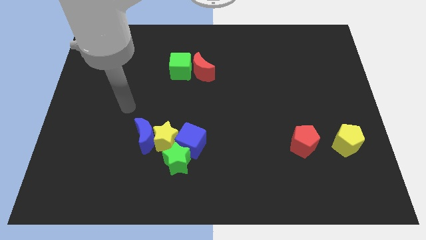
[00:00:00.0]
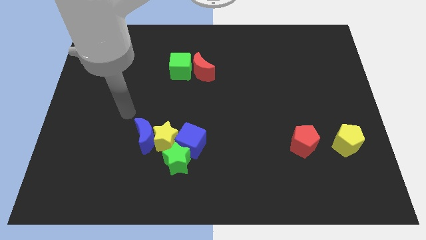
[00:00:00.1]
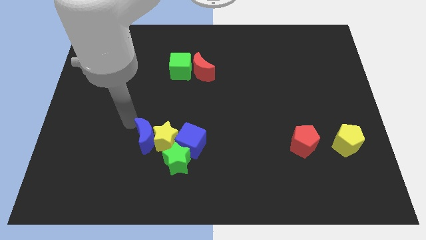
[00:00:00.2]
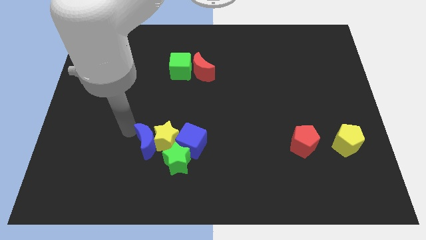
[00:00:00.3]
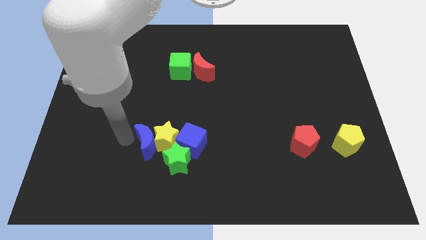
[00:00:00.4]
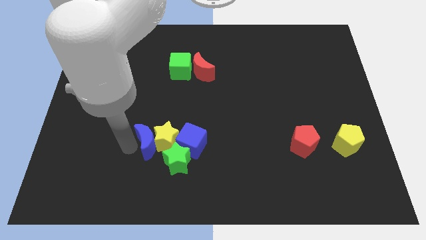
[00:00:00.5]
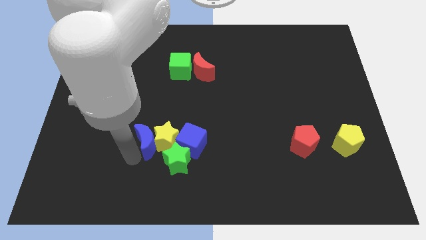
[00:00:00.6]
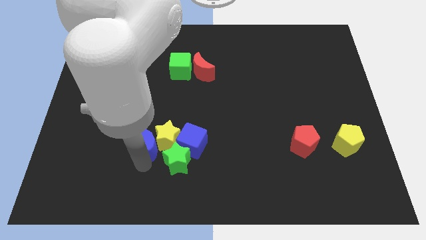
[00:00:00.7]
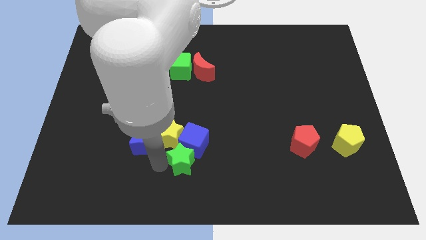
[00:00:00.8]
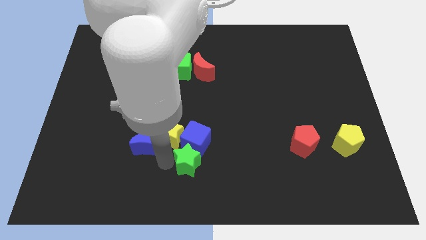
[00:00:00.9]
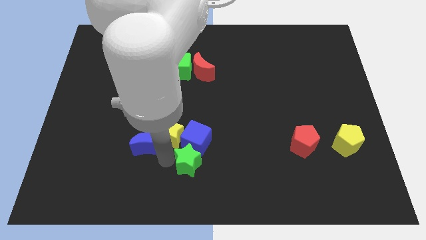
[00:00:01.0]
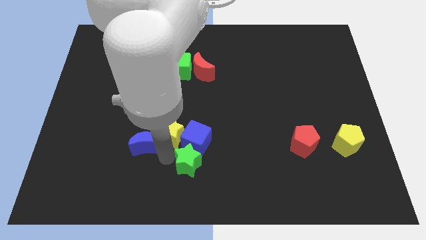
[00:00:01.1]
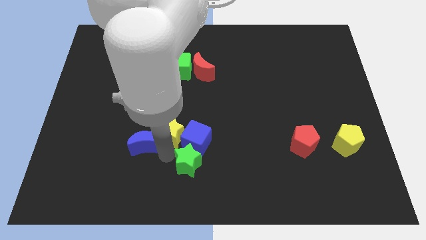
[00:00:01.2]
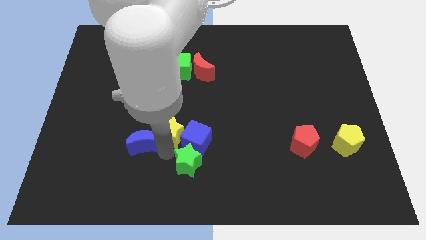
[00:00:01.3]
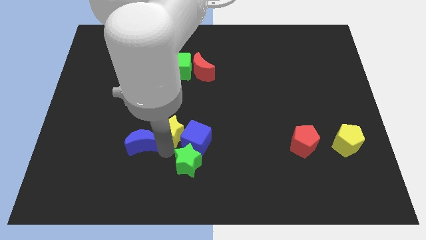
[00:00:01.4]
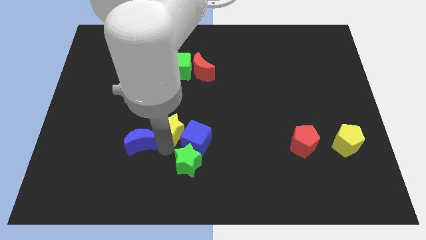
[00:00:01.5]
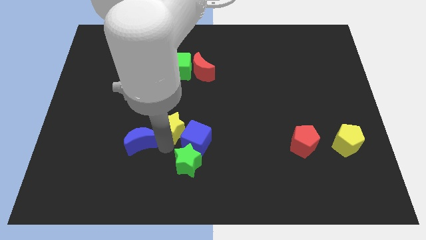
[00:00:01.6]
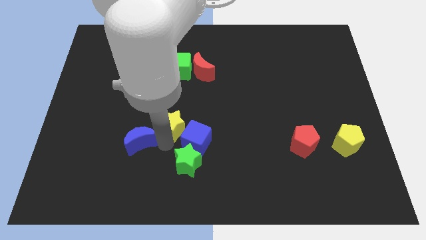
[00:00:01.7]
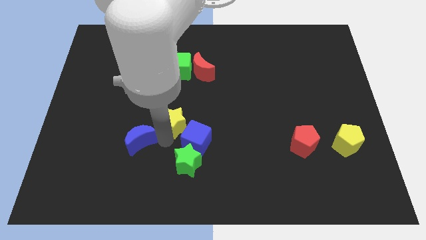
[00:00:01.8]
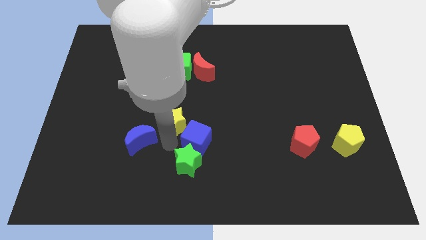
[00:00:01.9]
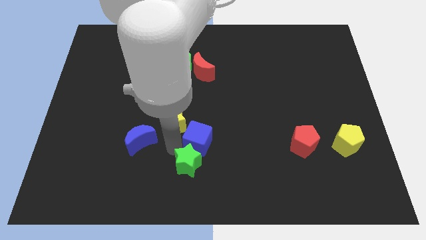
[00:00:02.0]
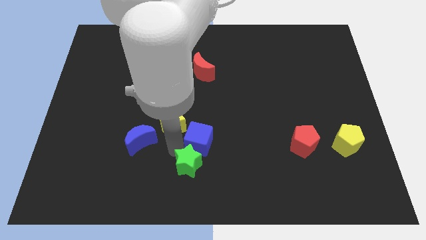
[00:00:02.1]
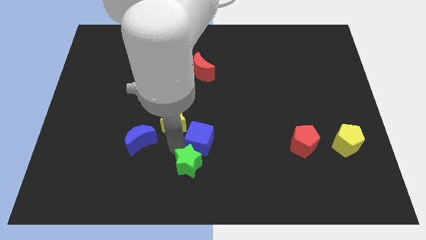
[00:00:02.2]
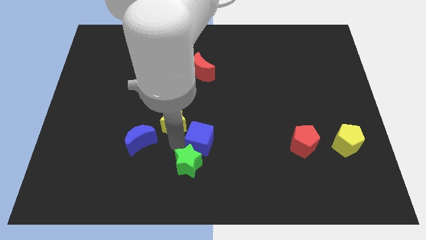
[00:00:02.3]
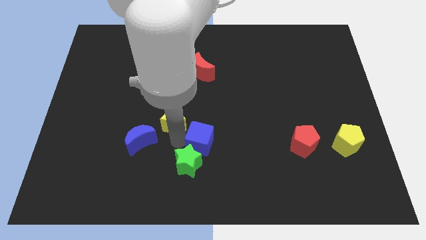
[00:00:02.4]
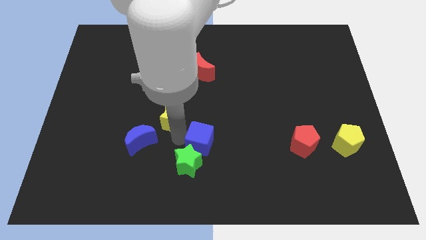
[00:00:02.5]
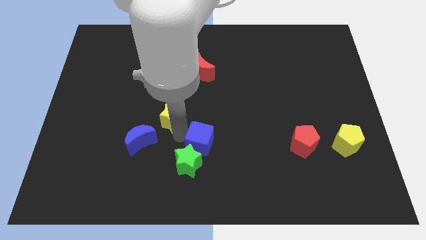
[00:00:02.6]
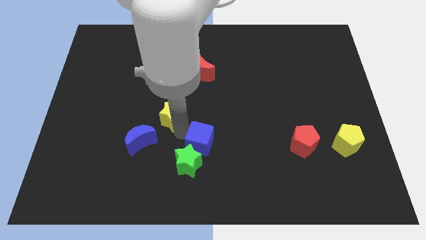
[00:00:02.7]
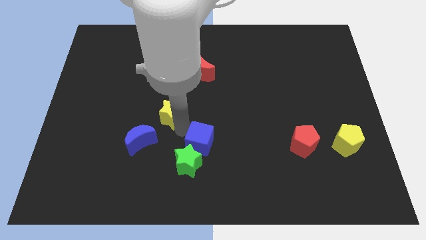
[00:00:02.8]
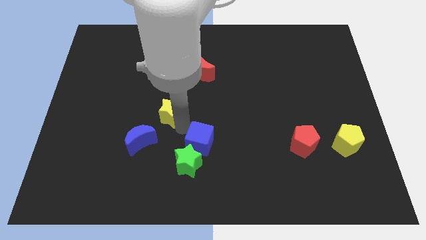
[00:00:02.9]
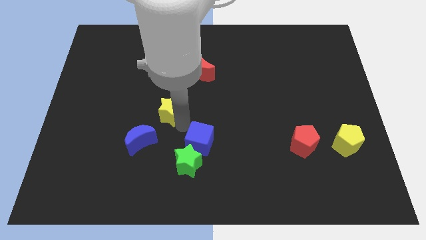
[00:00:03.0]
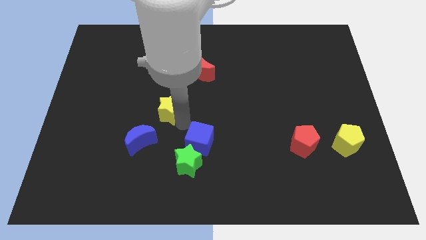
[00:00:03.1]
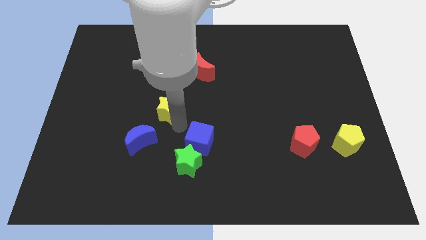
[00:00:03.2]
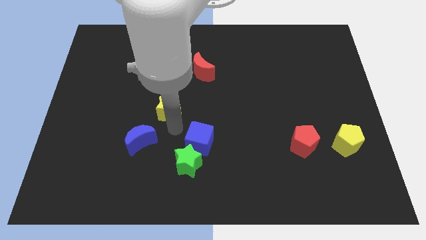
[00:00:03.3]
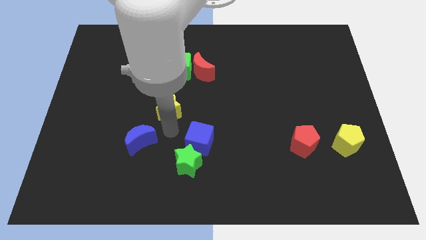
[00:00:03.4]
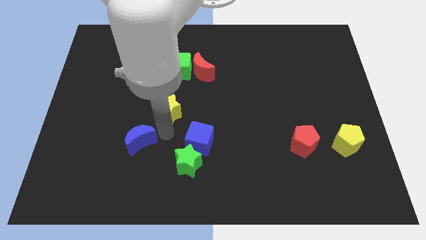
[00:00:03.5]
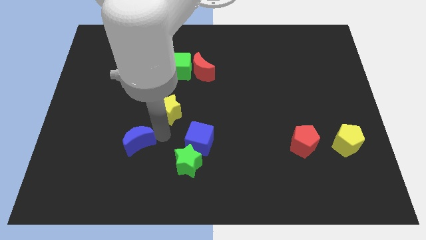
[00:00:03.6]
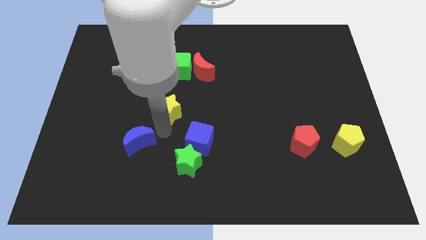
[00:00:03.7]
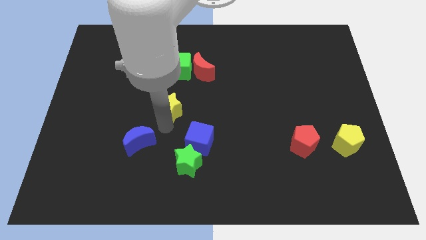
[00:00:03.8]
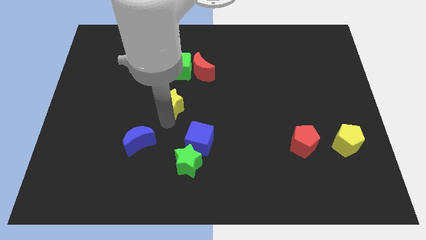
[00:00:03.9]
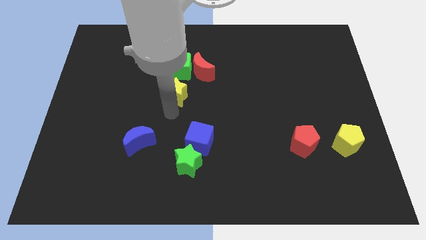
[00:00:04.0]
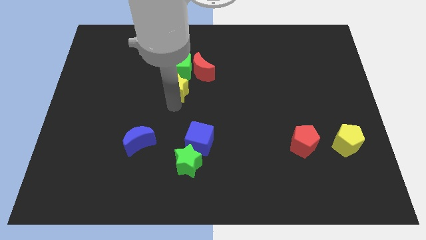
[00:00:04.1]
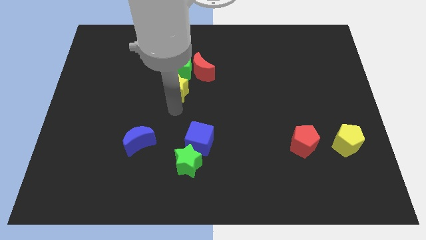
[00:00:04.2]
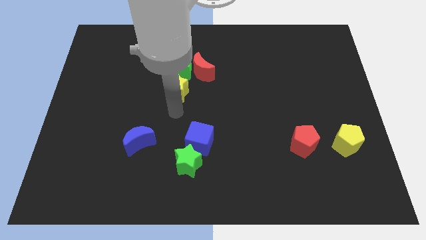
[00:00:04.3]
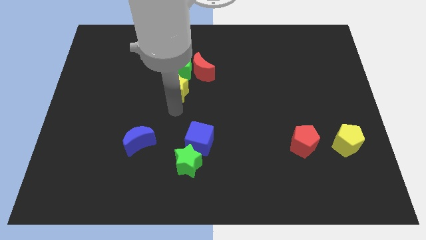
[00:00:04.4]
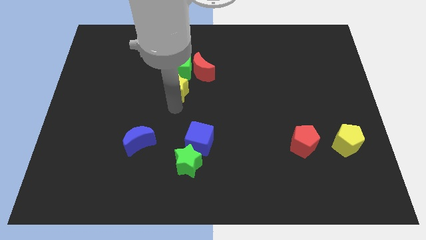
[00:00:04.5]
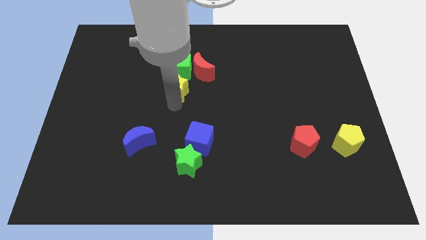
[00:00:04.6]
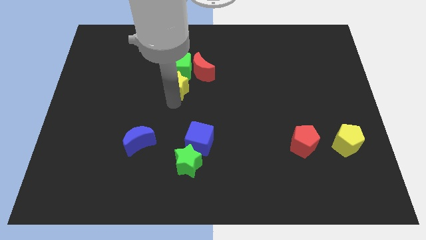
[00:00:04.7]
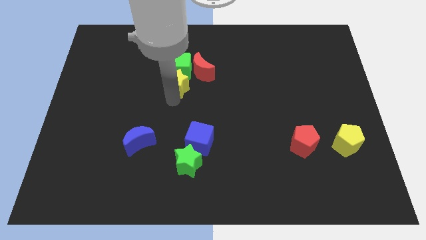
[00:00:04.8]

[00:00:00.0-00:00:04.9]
put the yellow star to the green cube

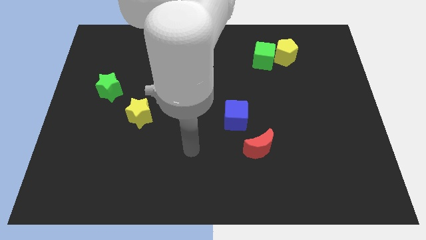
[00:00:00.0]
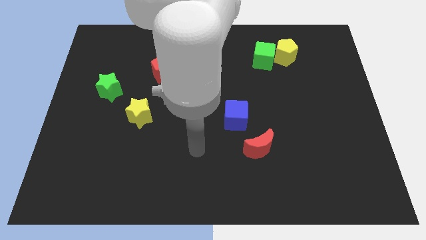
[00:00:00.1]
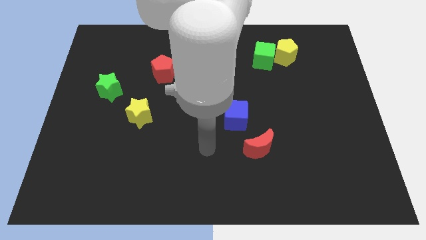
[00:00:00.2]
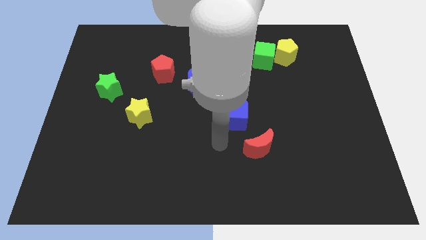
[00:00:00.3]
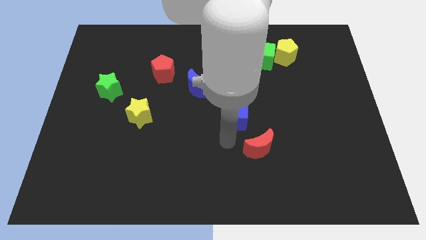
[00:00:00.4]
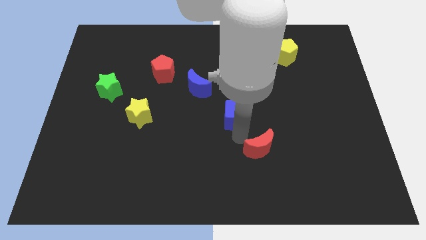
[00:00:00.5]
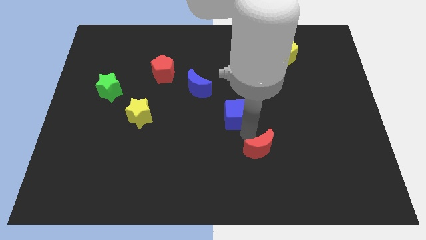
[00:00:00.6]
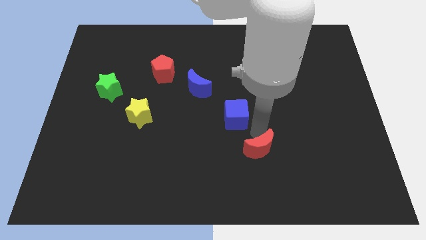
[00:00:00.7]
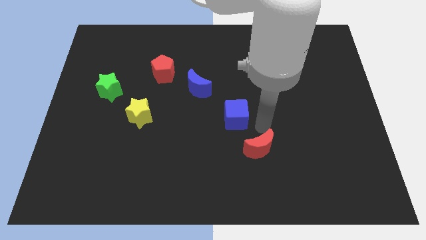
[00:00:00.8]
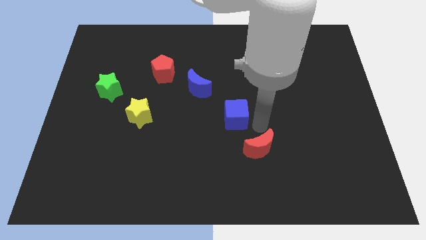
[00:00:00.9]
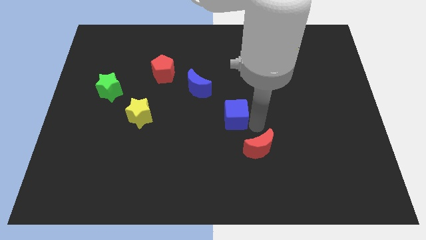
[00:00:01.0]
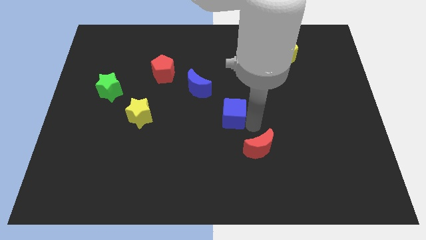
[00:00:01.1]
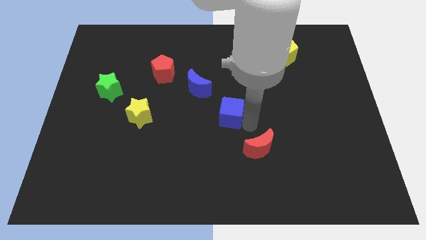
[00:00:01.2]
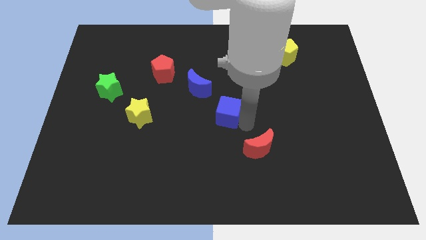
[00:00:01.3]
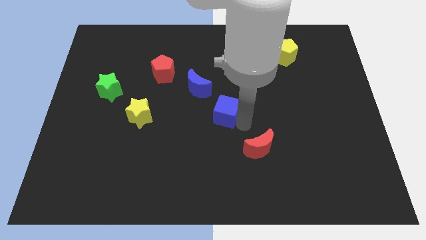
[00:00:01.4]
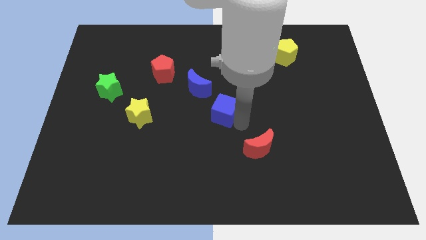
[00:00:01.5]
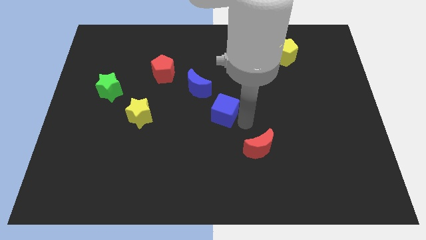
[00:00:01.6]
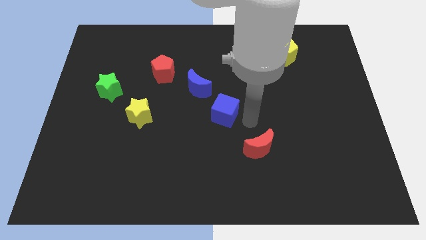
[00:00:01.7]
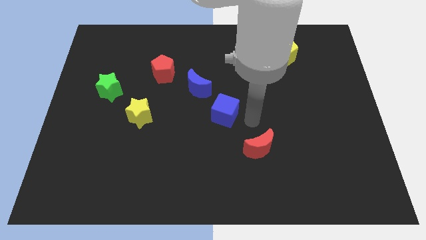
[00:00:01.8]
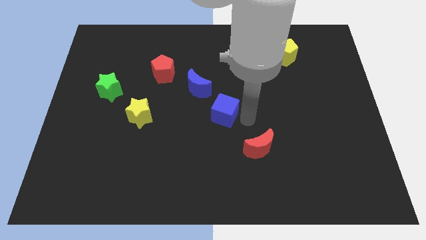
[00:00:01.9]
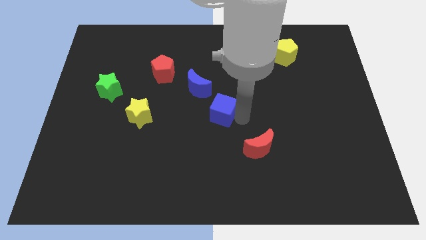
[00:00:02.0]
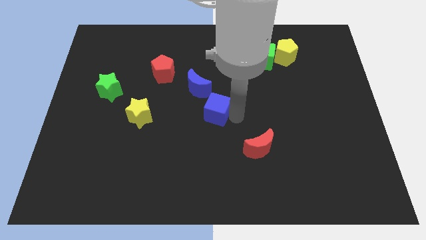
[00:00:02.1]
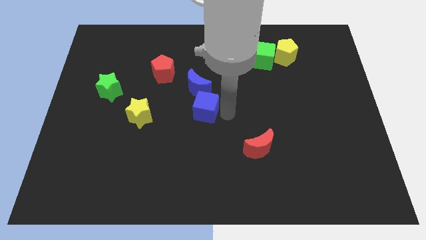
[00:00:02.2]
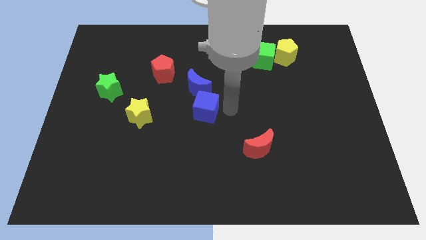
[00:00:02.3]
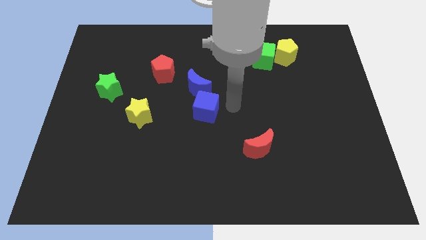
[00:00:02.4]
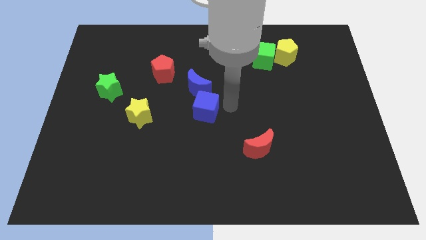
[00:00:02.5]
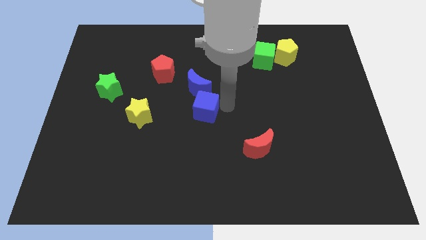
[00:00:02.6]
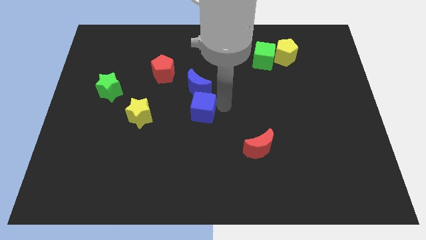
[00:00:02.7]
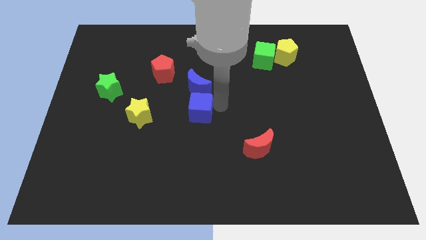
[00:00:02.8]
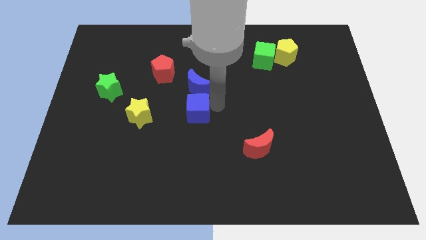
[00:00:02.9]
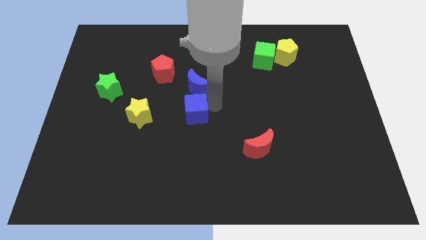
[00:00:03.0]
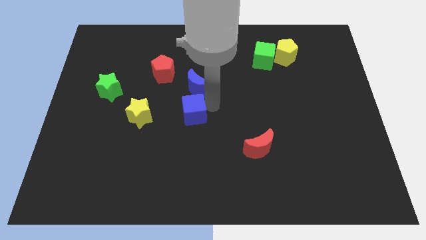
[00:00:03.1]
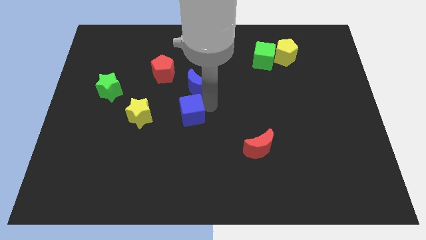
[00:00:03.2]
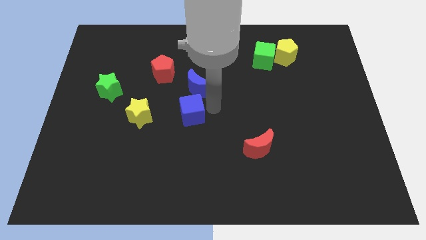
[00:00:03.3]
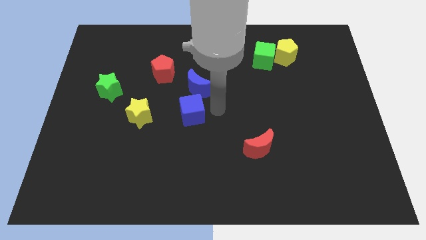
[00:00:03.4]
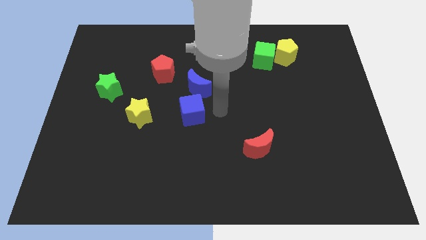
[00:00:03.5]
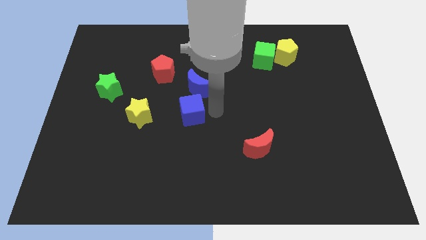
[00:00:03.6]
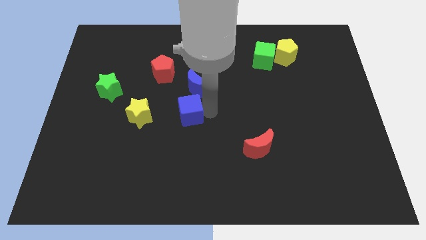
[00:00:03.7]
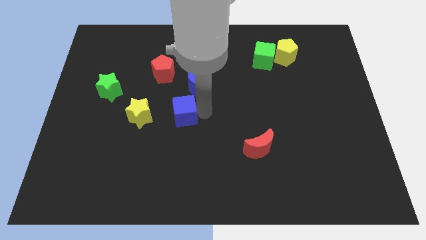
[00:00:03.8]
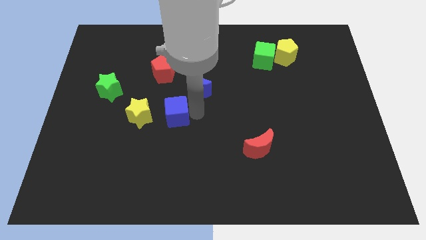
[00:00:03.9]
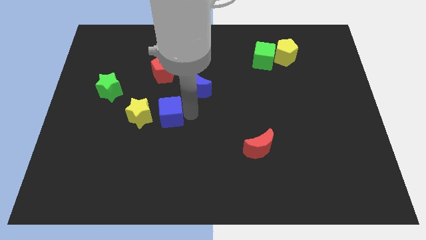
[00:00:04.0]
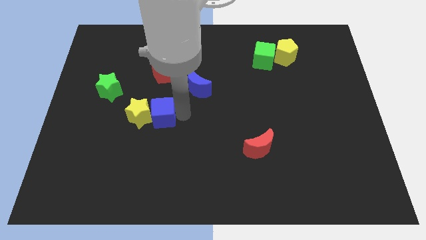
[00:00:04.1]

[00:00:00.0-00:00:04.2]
put the blue cube next to the yellow star
